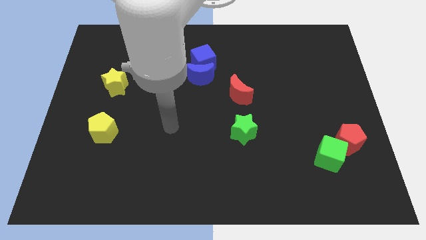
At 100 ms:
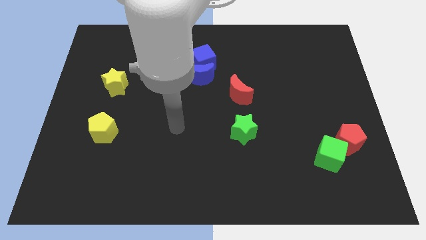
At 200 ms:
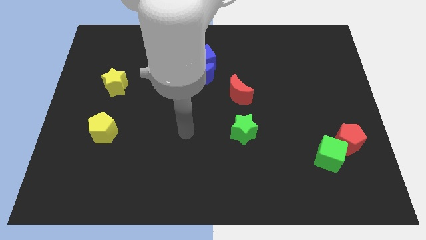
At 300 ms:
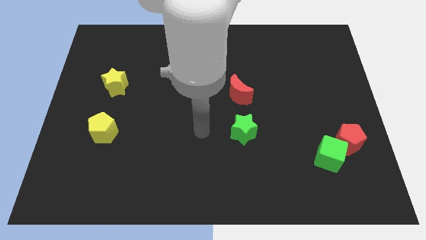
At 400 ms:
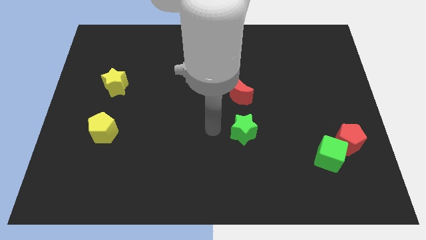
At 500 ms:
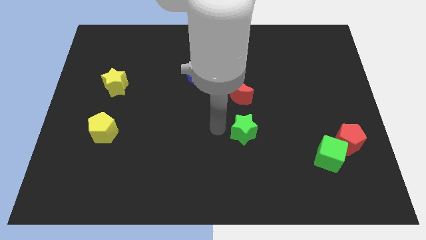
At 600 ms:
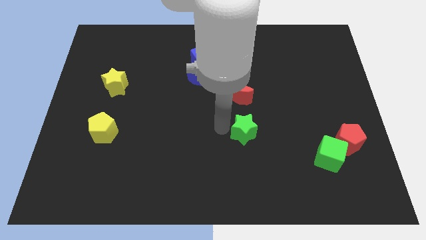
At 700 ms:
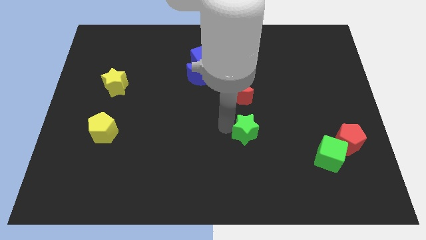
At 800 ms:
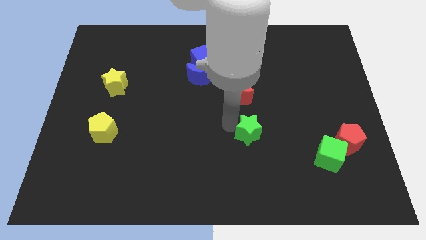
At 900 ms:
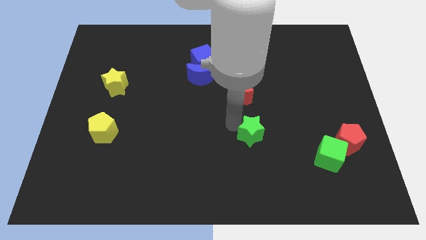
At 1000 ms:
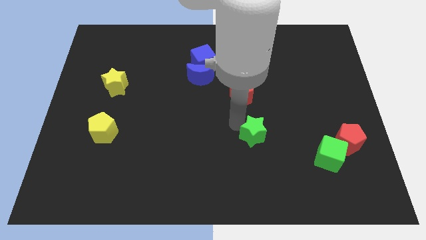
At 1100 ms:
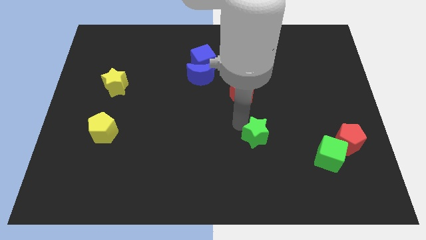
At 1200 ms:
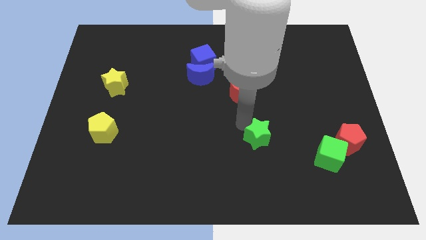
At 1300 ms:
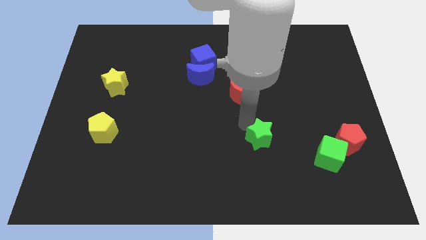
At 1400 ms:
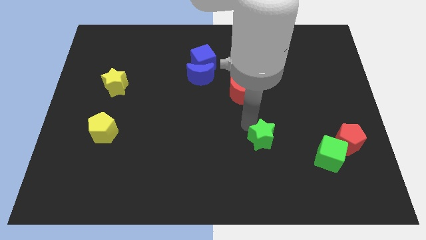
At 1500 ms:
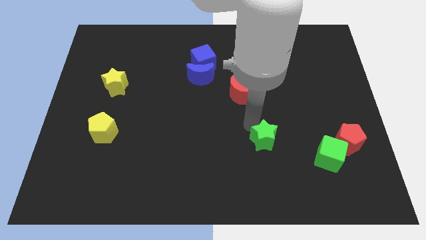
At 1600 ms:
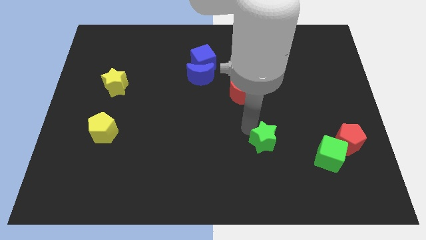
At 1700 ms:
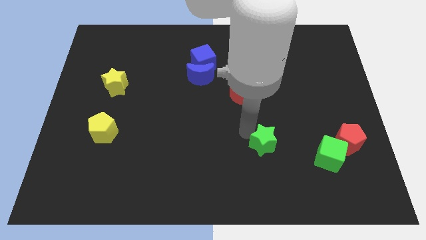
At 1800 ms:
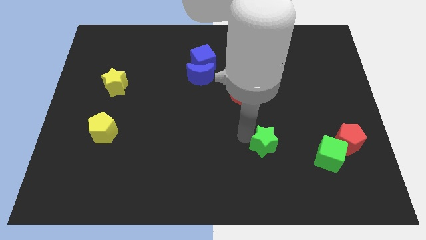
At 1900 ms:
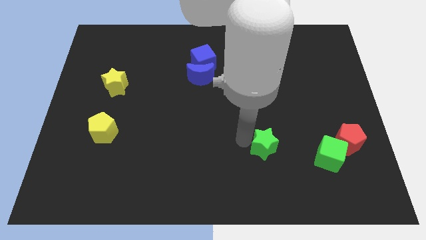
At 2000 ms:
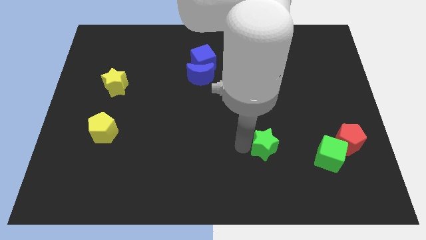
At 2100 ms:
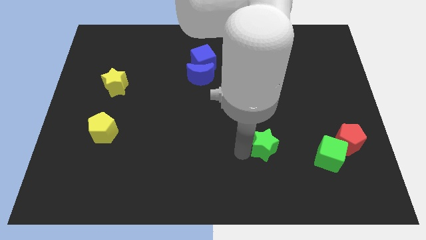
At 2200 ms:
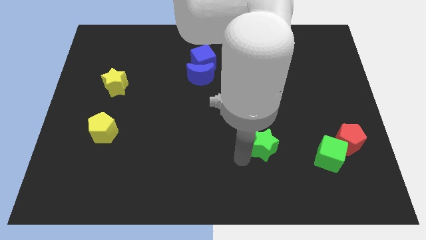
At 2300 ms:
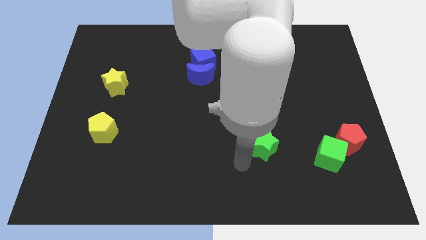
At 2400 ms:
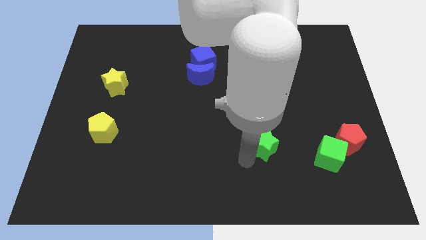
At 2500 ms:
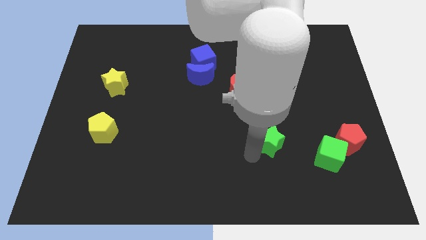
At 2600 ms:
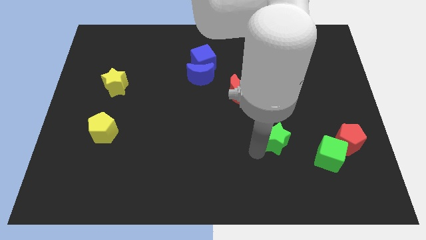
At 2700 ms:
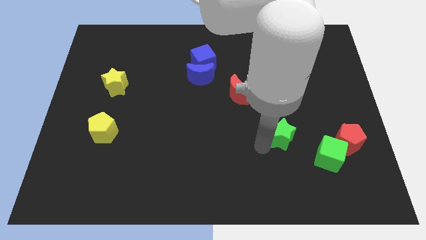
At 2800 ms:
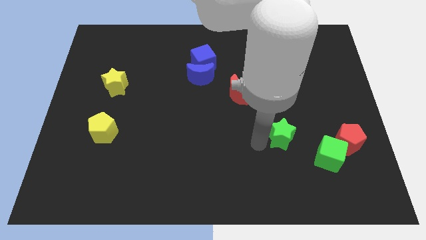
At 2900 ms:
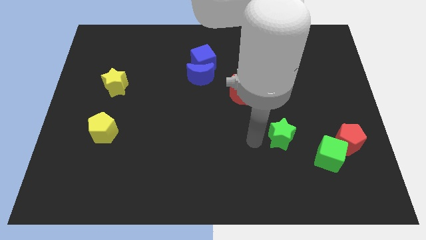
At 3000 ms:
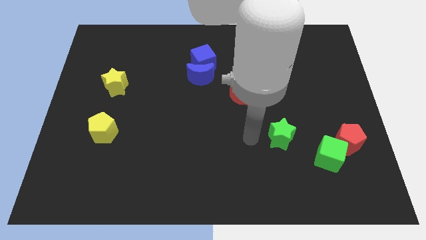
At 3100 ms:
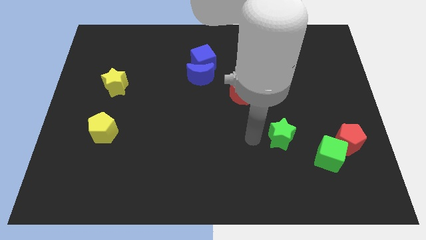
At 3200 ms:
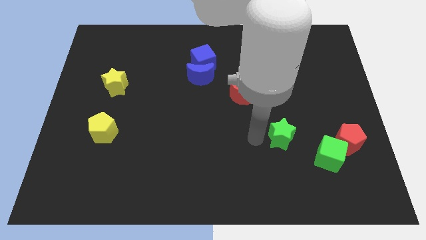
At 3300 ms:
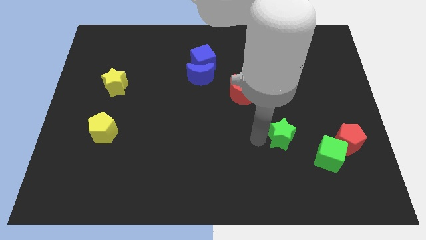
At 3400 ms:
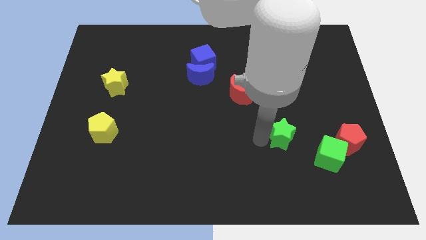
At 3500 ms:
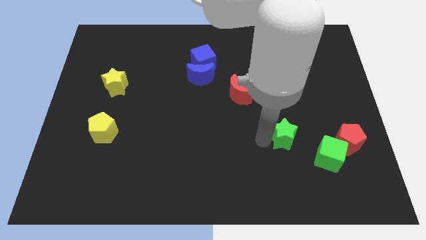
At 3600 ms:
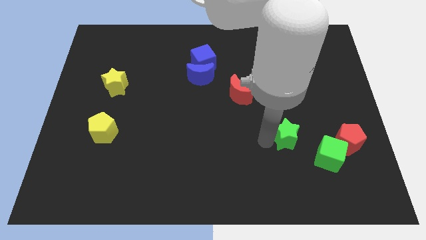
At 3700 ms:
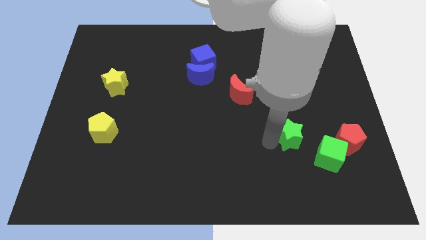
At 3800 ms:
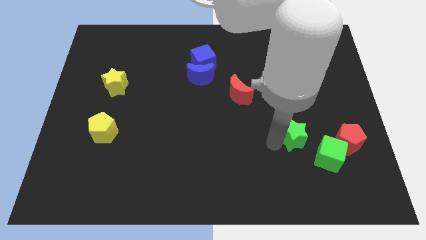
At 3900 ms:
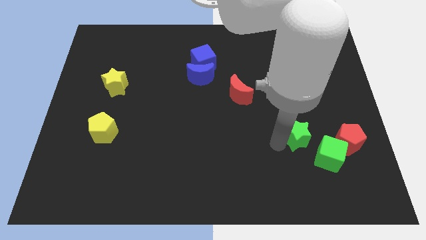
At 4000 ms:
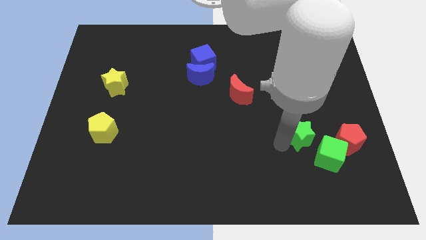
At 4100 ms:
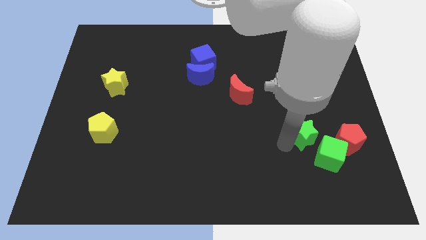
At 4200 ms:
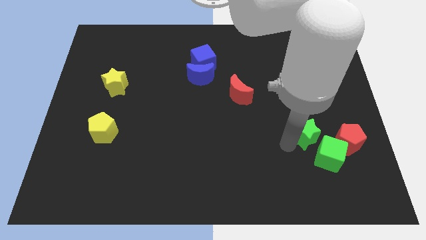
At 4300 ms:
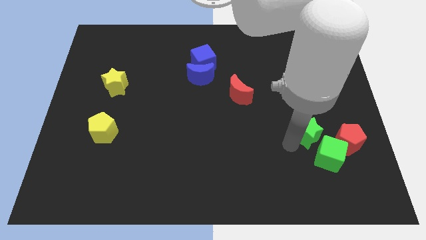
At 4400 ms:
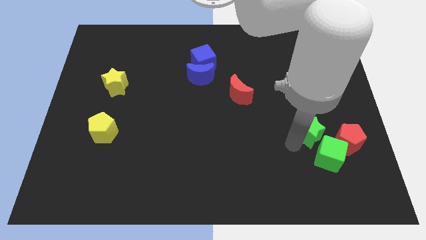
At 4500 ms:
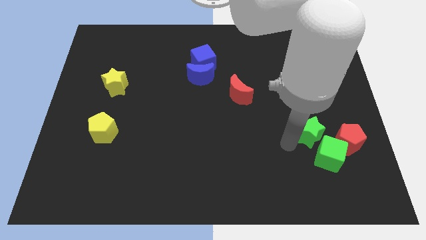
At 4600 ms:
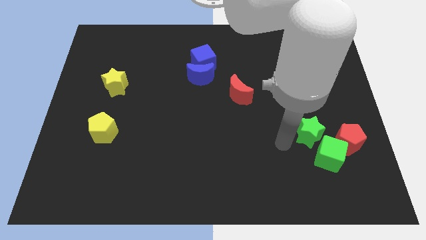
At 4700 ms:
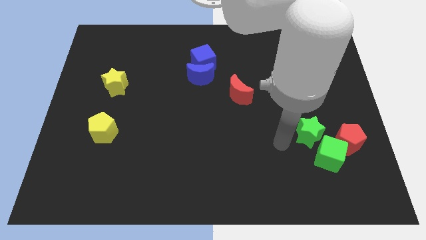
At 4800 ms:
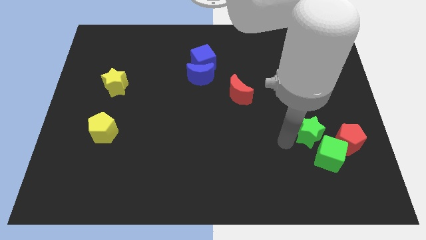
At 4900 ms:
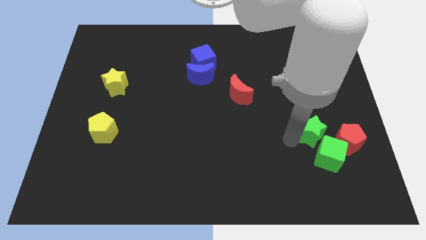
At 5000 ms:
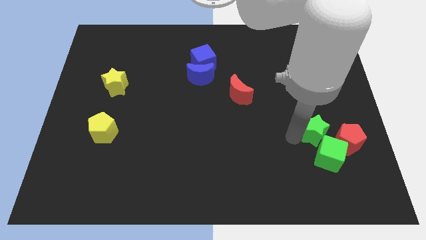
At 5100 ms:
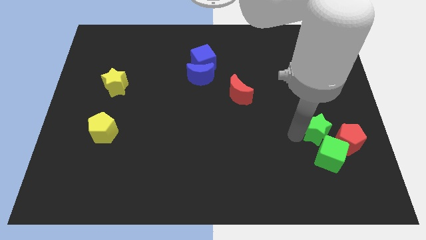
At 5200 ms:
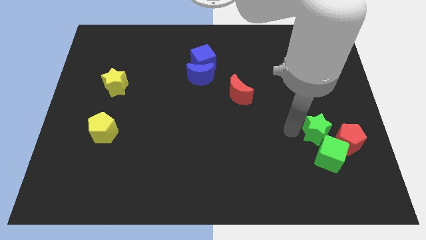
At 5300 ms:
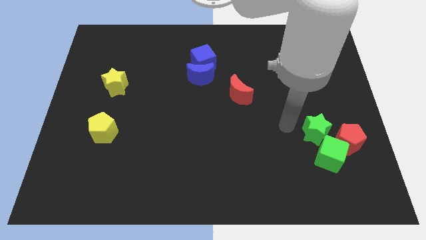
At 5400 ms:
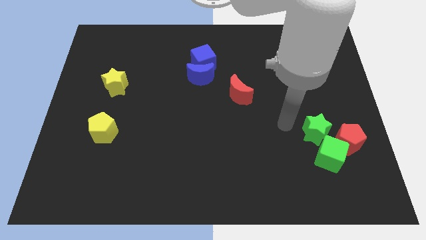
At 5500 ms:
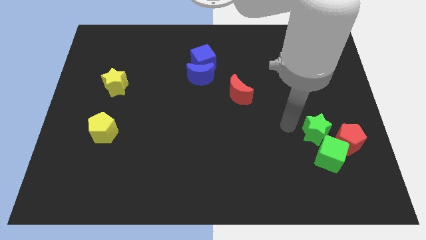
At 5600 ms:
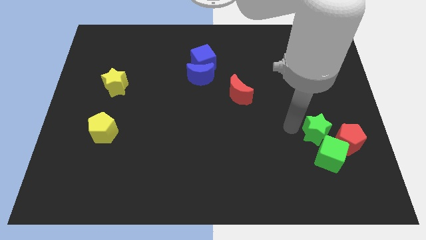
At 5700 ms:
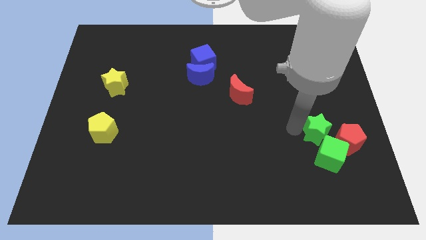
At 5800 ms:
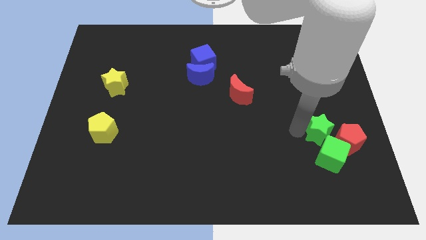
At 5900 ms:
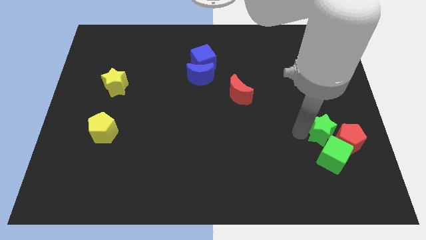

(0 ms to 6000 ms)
put the green star close to the red pentagon

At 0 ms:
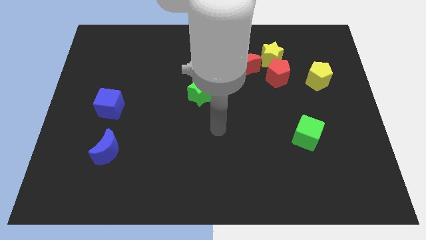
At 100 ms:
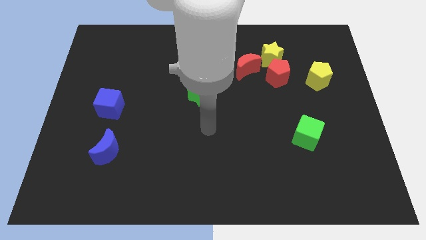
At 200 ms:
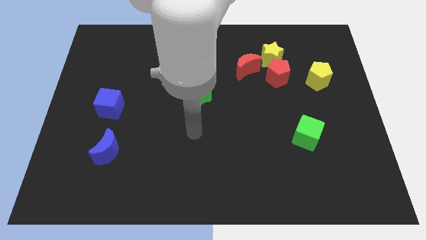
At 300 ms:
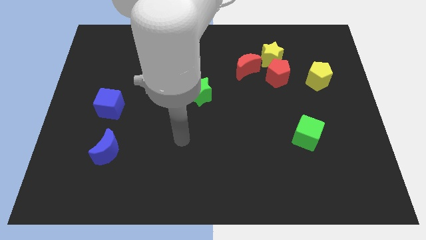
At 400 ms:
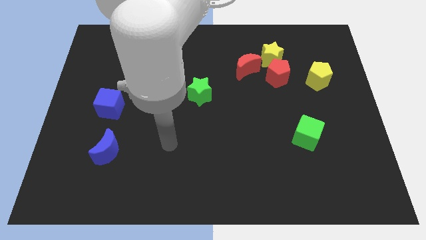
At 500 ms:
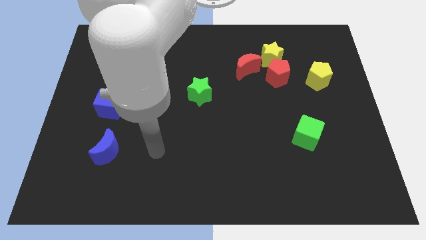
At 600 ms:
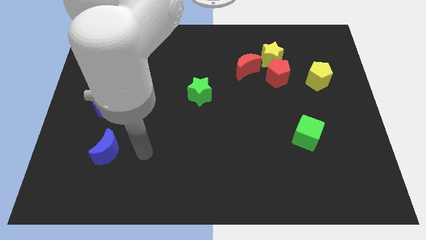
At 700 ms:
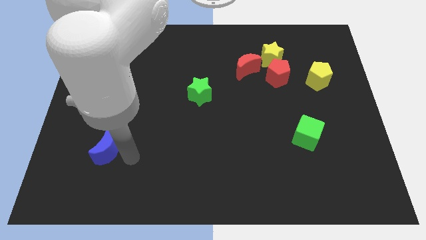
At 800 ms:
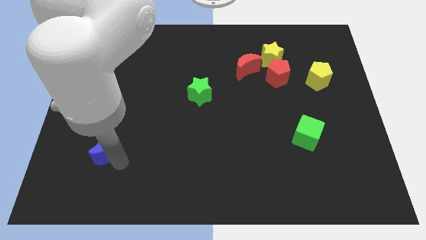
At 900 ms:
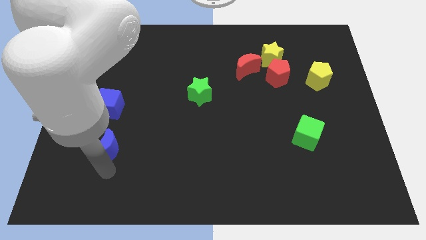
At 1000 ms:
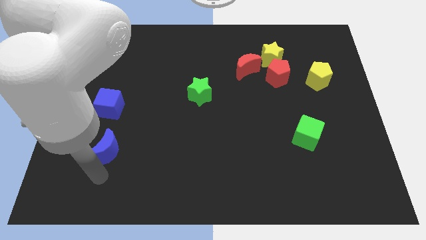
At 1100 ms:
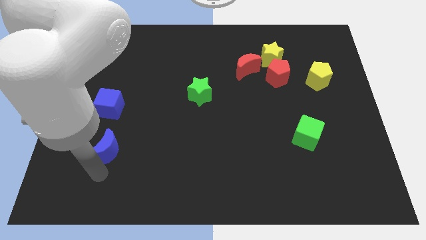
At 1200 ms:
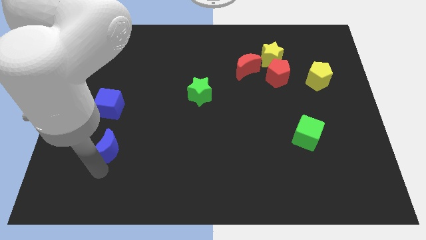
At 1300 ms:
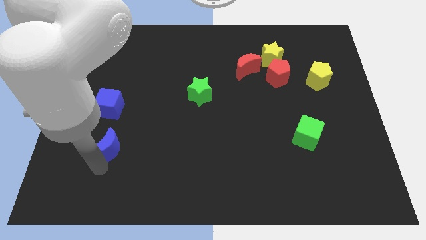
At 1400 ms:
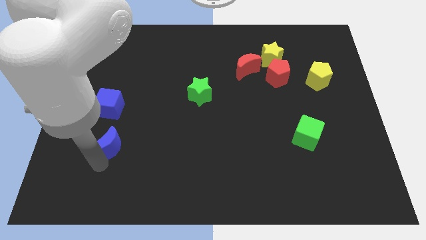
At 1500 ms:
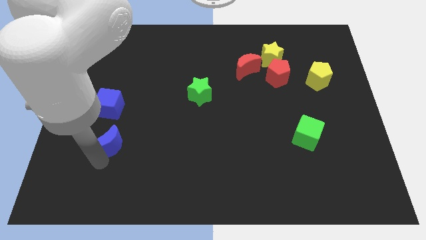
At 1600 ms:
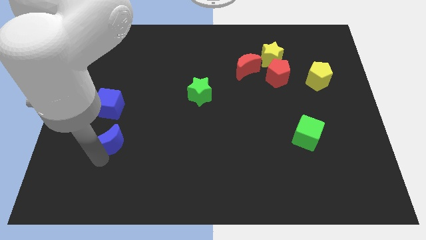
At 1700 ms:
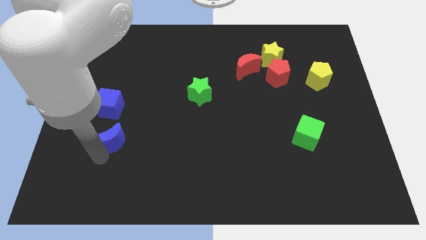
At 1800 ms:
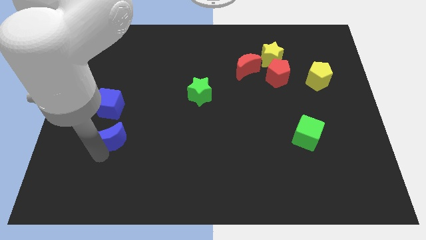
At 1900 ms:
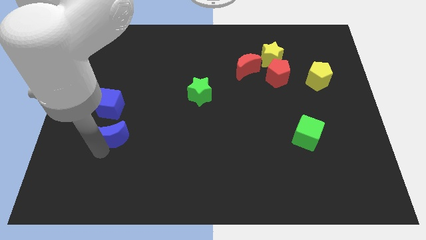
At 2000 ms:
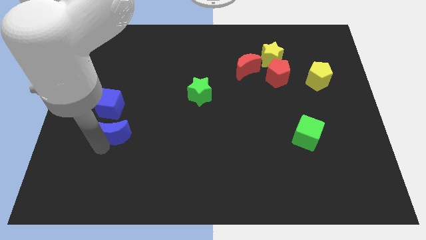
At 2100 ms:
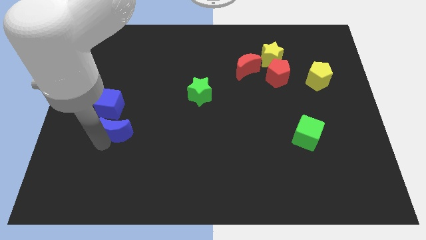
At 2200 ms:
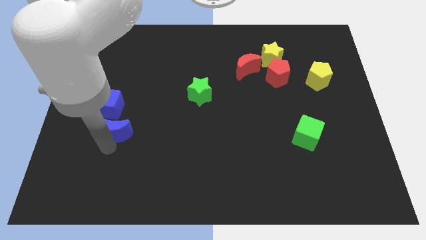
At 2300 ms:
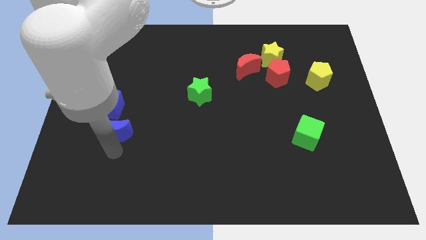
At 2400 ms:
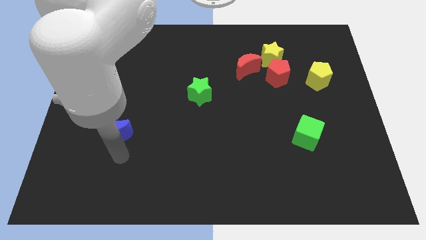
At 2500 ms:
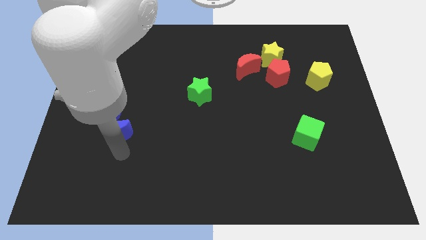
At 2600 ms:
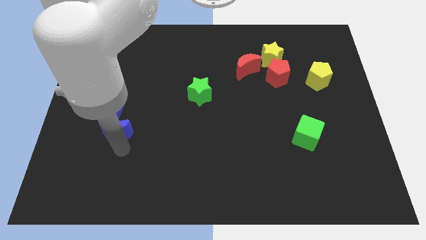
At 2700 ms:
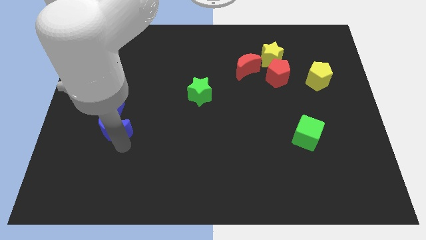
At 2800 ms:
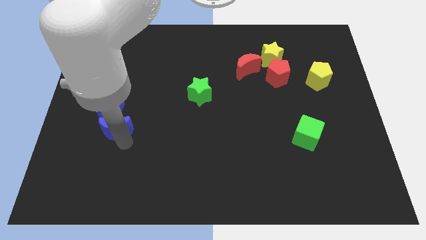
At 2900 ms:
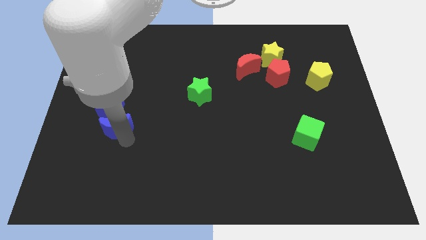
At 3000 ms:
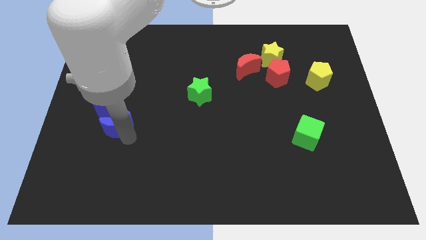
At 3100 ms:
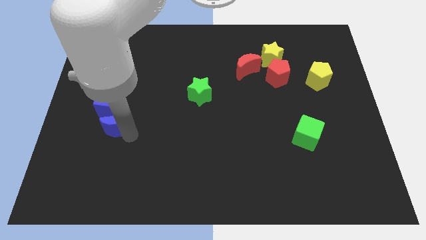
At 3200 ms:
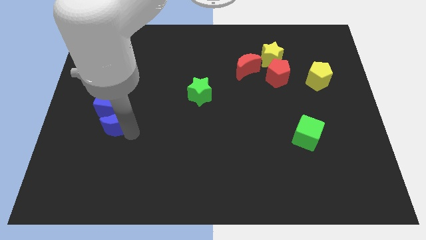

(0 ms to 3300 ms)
put the blue moon close to the blue cube
